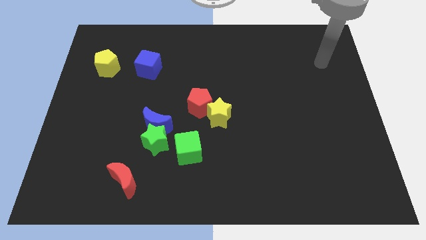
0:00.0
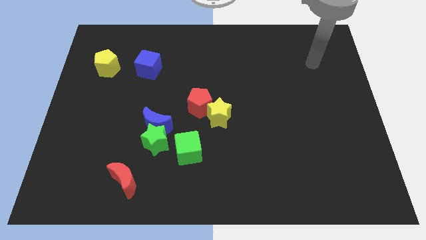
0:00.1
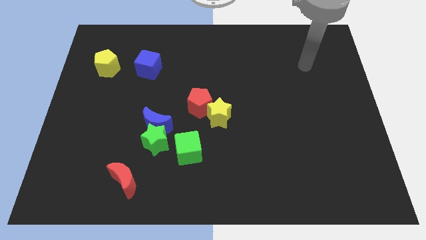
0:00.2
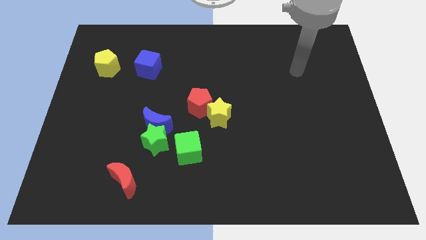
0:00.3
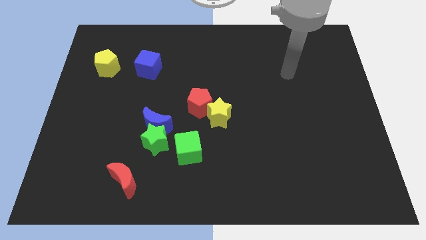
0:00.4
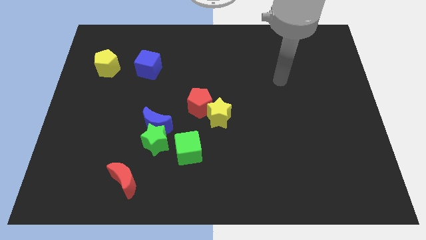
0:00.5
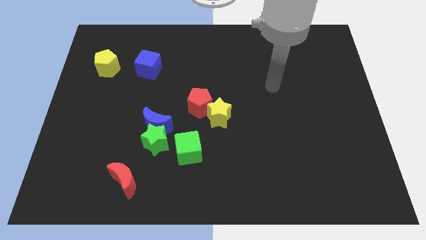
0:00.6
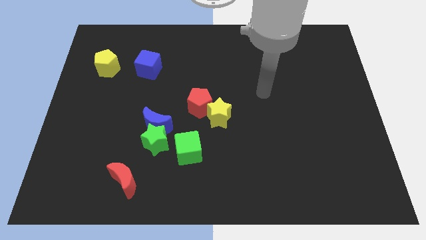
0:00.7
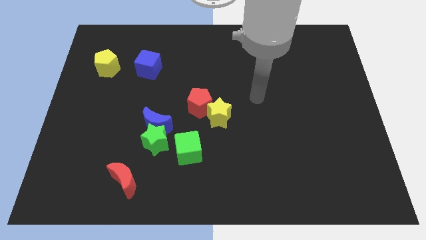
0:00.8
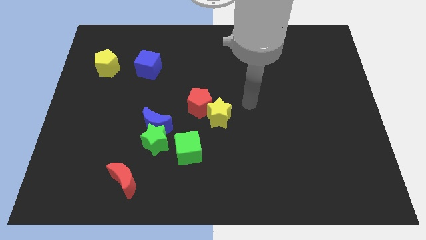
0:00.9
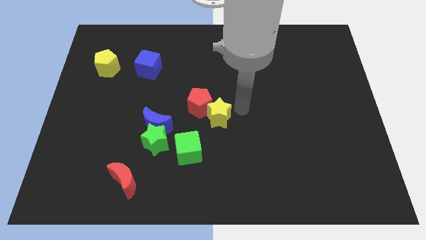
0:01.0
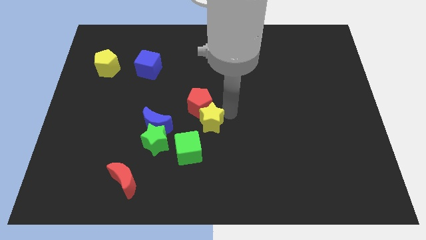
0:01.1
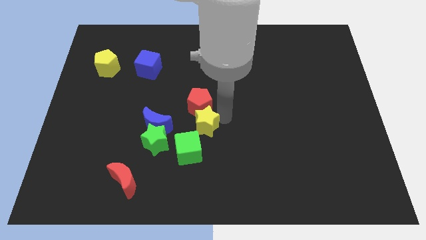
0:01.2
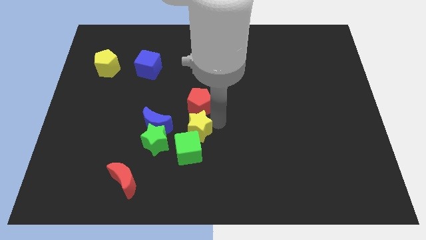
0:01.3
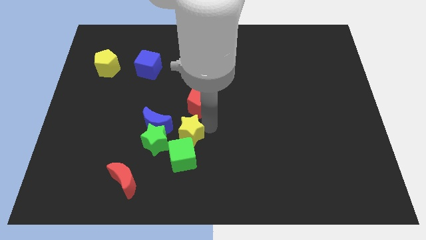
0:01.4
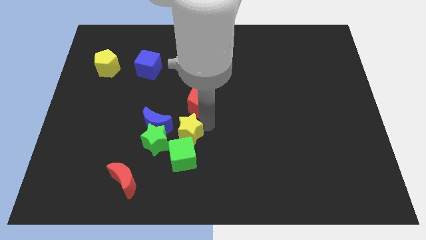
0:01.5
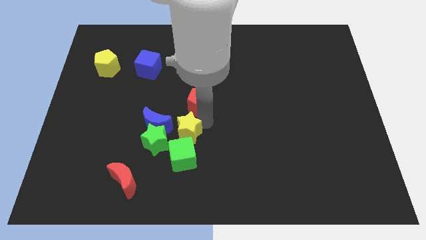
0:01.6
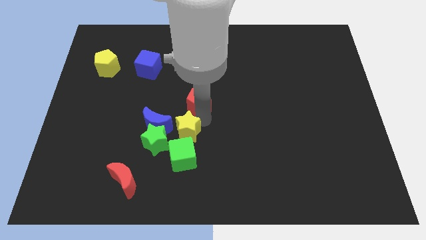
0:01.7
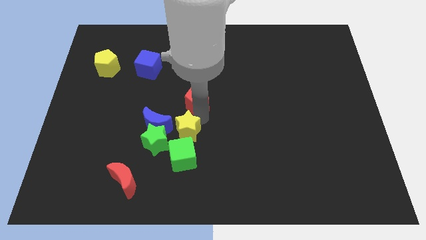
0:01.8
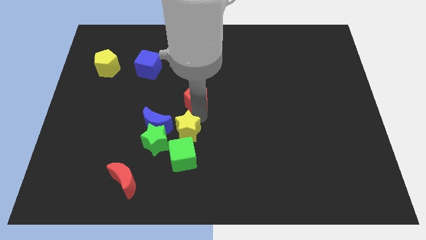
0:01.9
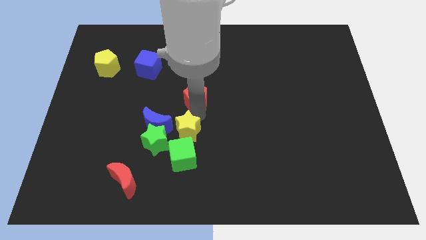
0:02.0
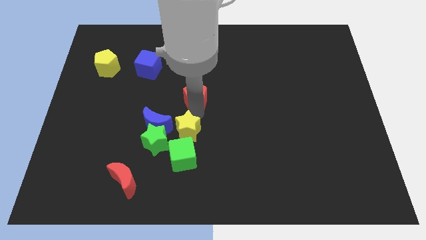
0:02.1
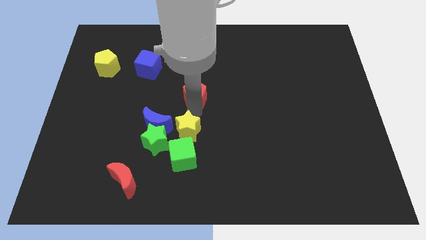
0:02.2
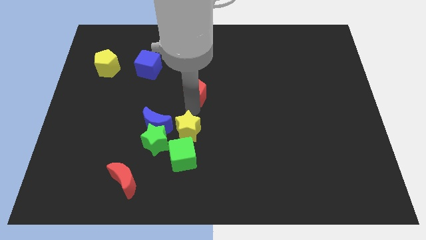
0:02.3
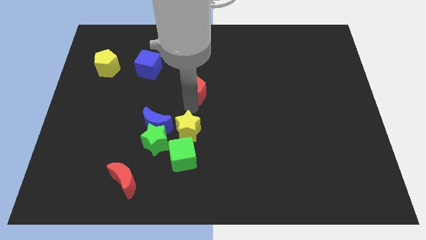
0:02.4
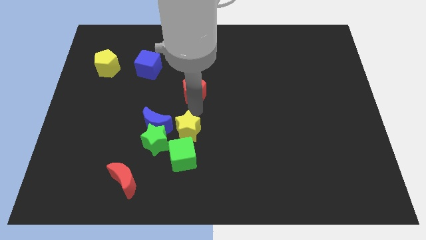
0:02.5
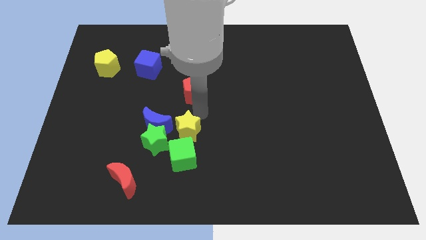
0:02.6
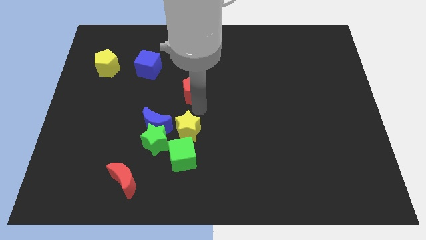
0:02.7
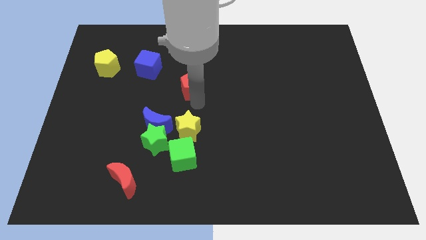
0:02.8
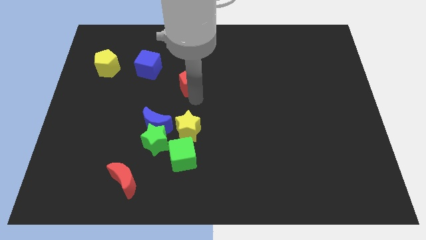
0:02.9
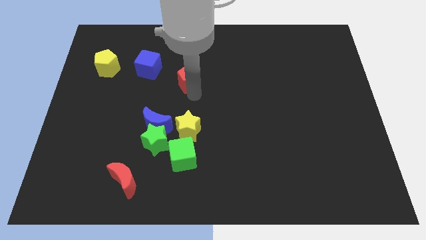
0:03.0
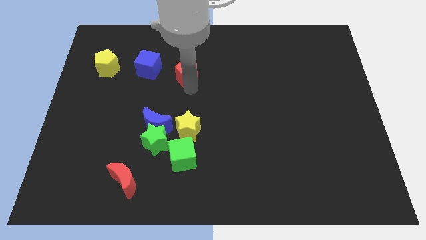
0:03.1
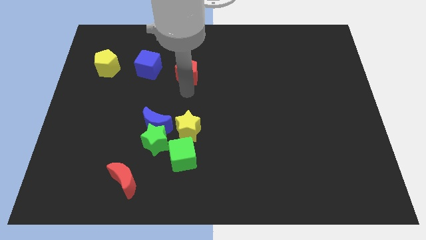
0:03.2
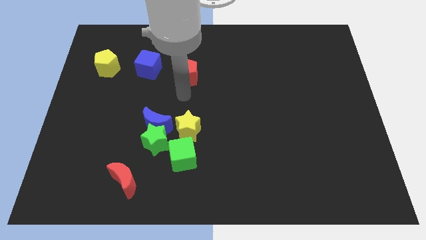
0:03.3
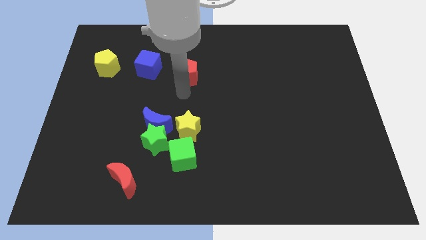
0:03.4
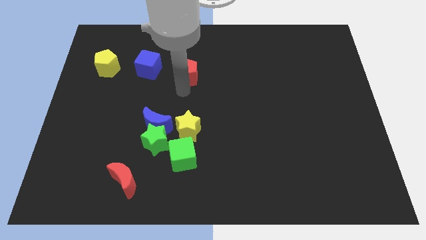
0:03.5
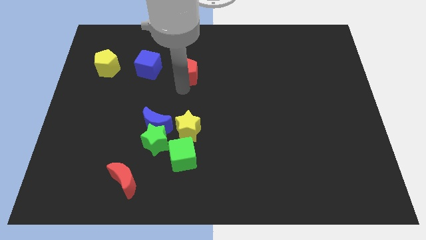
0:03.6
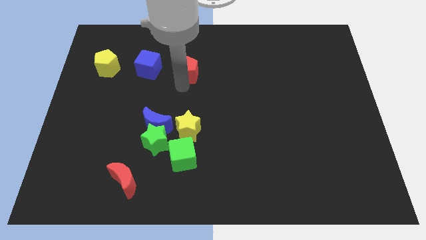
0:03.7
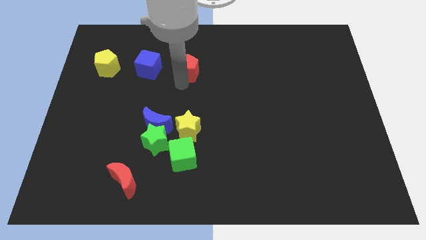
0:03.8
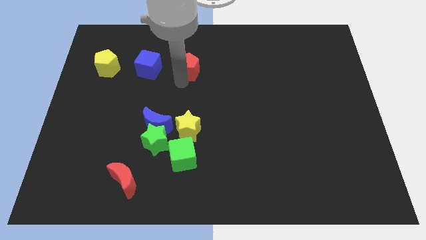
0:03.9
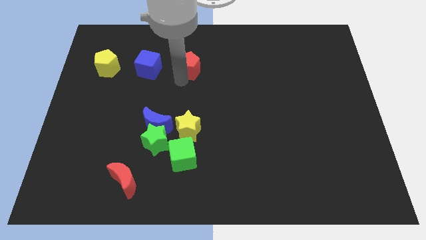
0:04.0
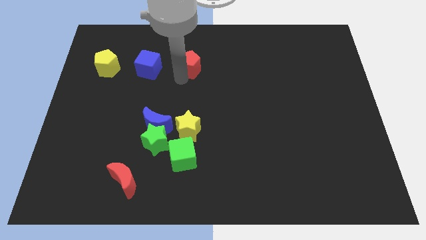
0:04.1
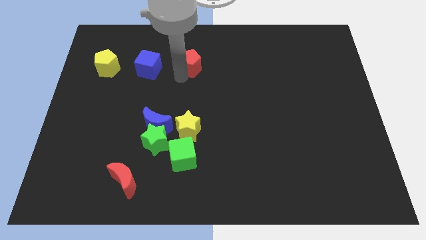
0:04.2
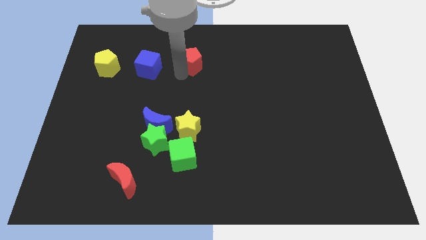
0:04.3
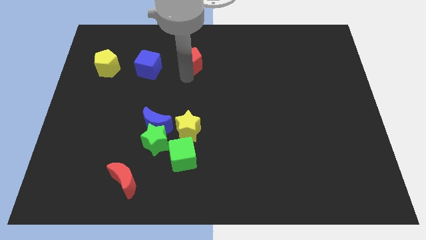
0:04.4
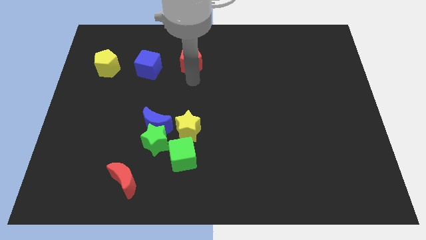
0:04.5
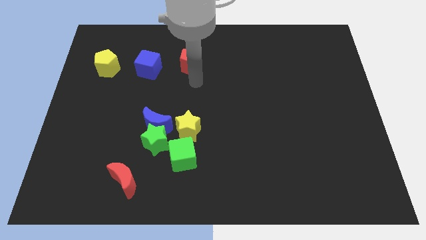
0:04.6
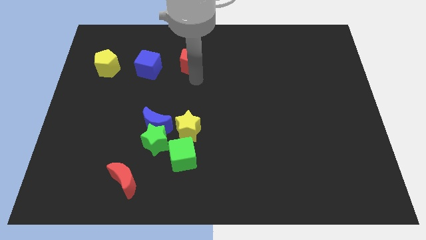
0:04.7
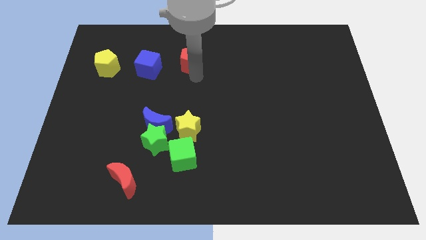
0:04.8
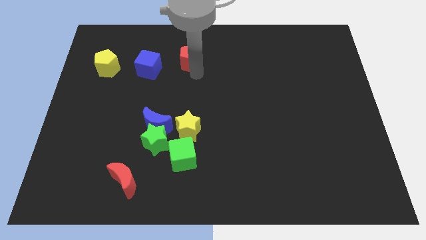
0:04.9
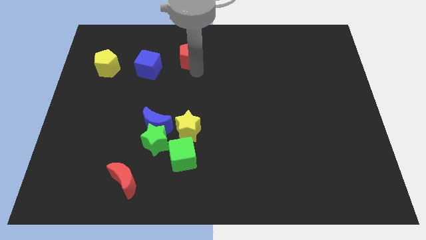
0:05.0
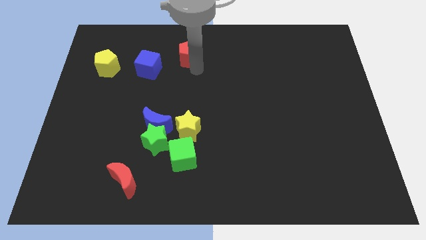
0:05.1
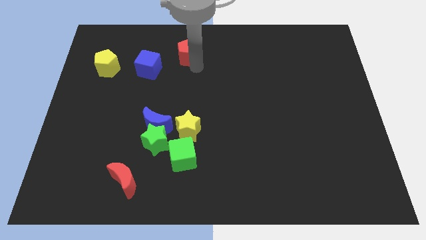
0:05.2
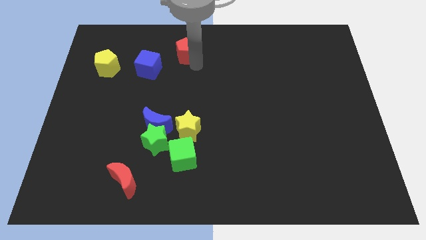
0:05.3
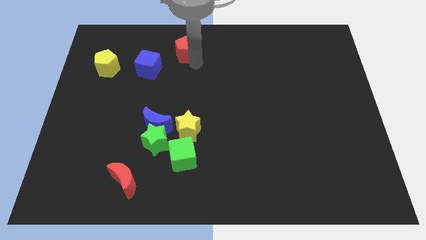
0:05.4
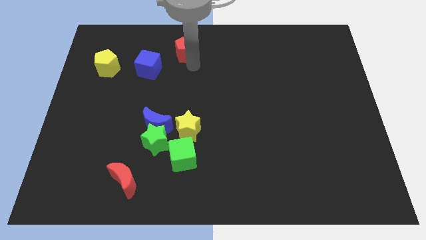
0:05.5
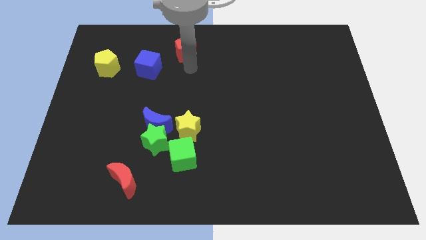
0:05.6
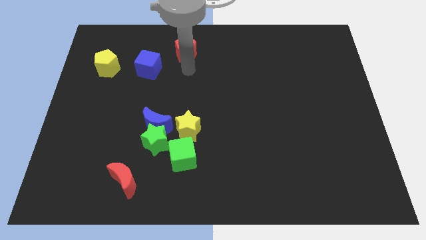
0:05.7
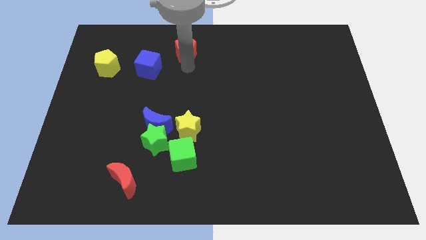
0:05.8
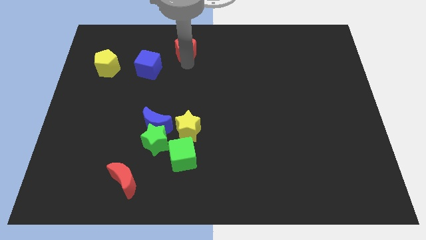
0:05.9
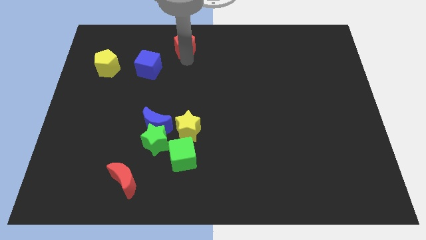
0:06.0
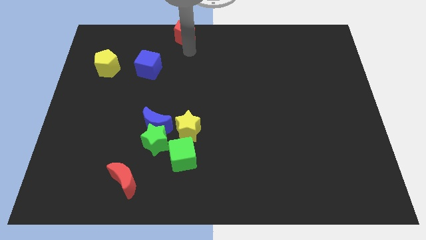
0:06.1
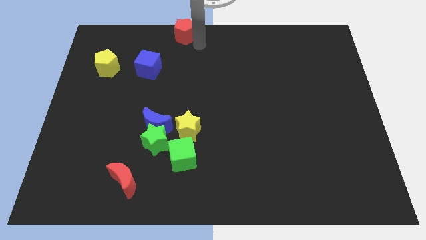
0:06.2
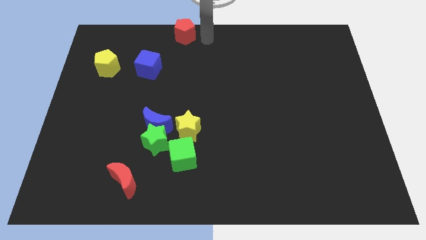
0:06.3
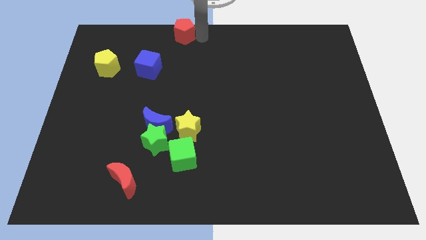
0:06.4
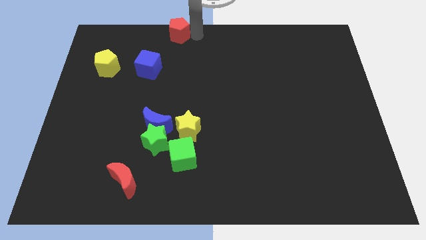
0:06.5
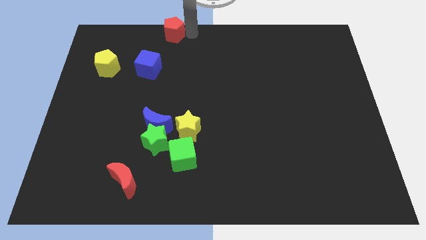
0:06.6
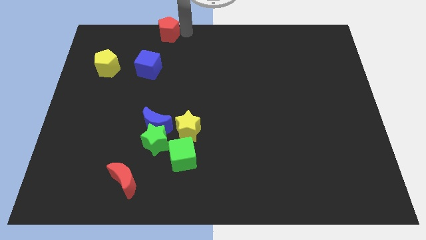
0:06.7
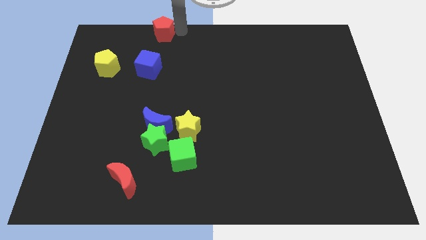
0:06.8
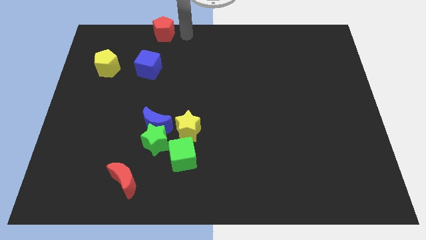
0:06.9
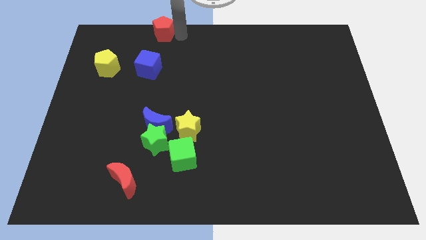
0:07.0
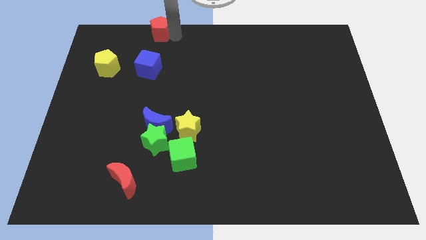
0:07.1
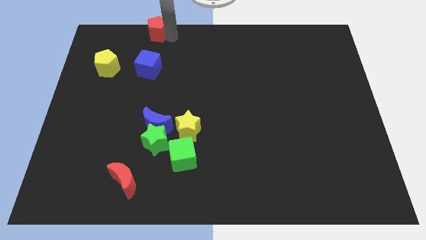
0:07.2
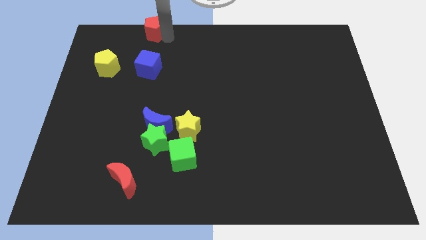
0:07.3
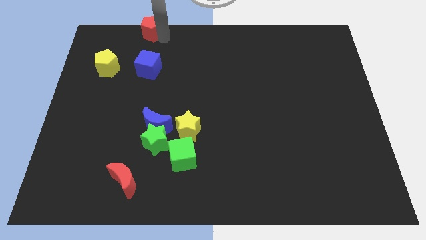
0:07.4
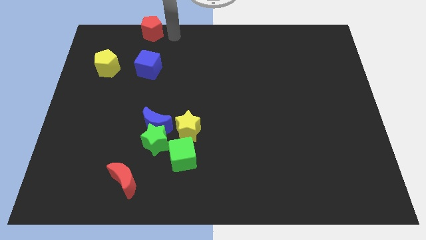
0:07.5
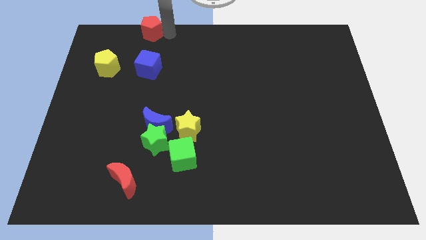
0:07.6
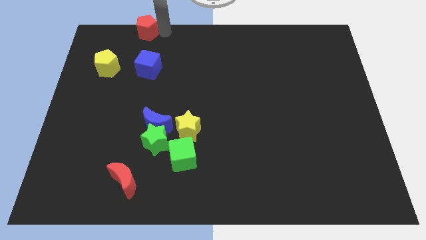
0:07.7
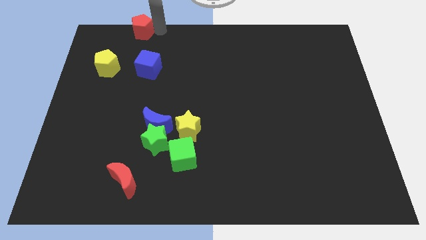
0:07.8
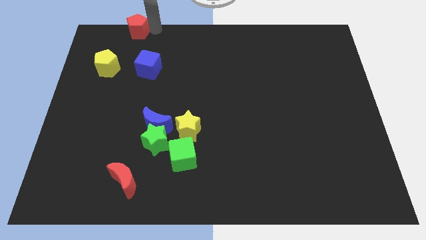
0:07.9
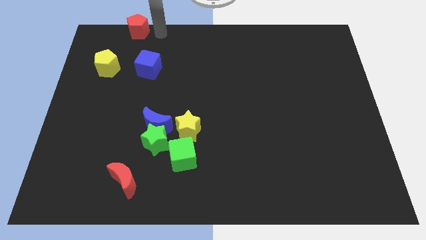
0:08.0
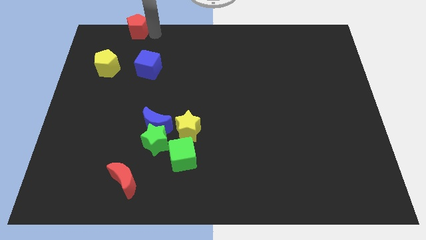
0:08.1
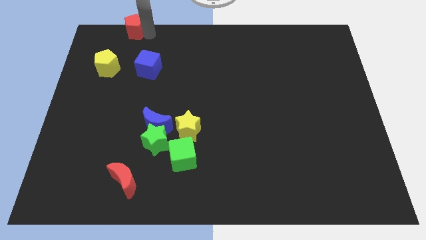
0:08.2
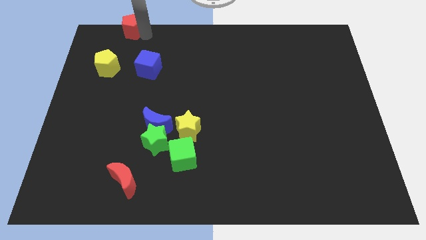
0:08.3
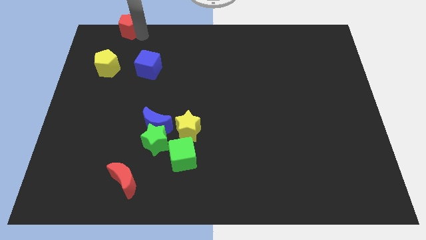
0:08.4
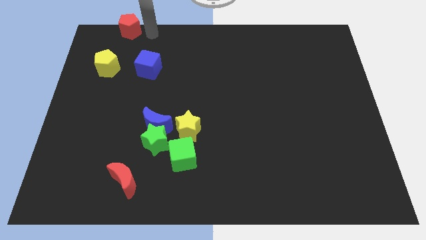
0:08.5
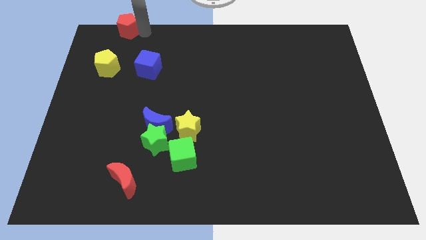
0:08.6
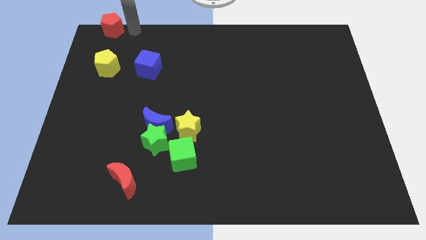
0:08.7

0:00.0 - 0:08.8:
put the red pentagon to the top left
